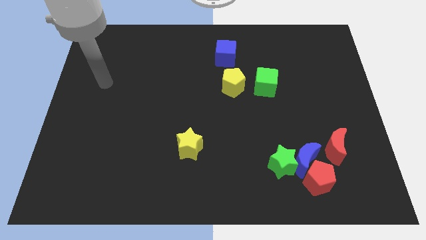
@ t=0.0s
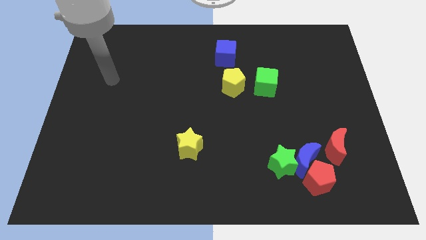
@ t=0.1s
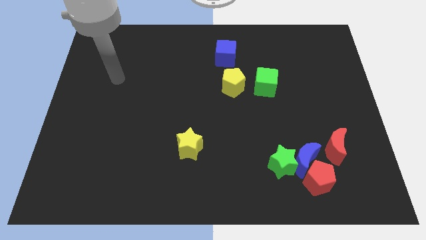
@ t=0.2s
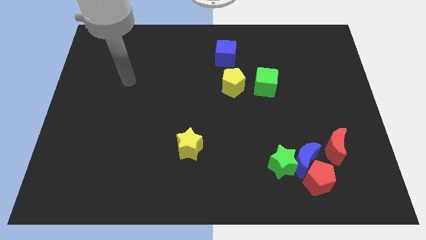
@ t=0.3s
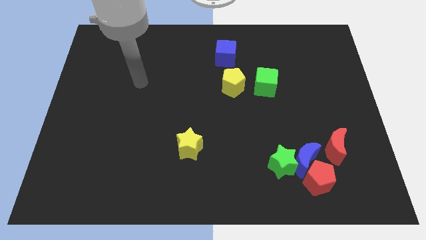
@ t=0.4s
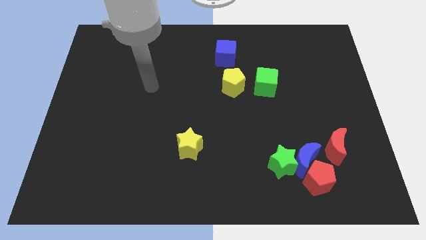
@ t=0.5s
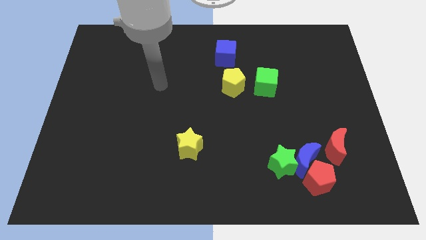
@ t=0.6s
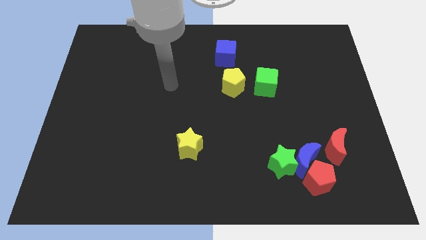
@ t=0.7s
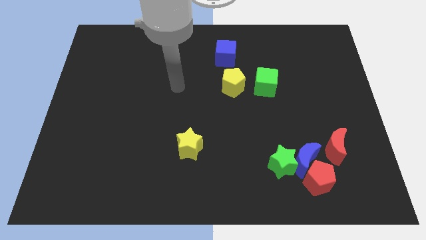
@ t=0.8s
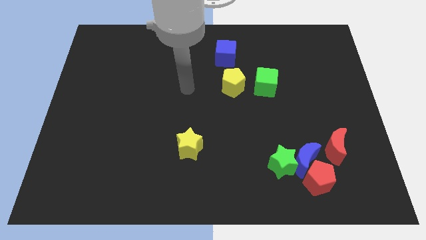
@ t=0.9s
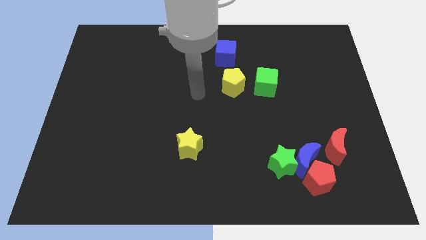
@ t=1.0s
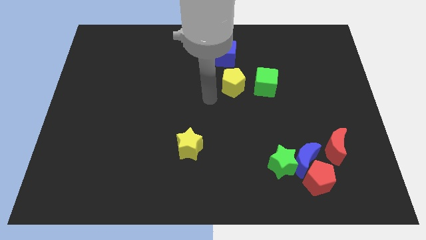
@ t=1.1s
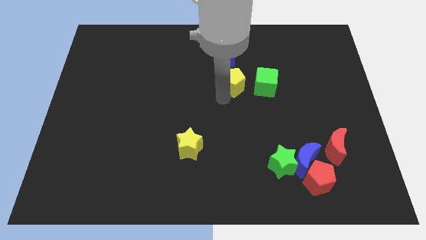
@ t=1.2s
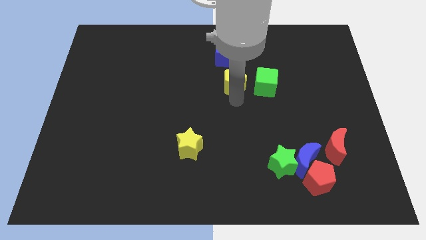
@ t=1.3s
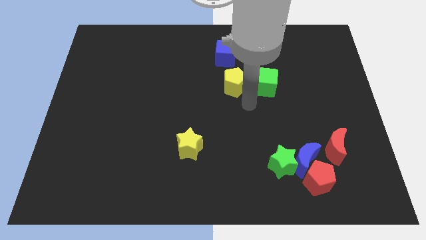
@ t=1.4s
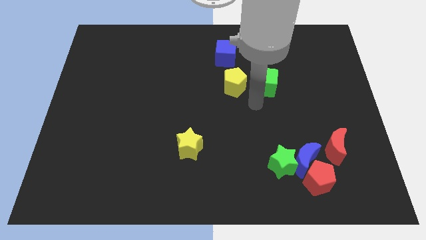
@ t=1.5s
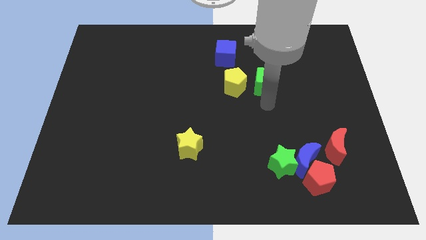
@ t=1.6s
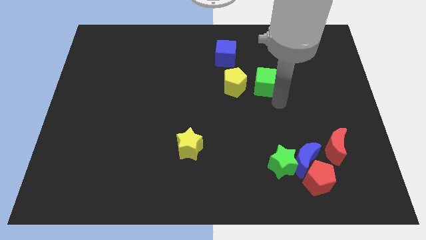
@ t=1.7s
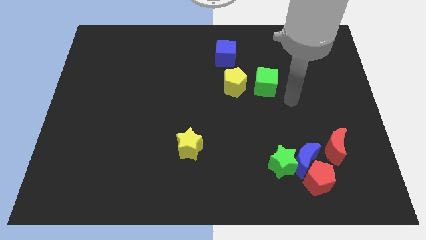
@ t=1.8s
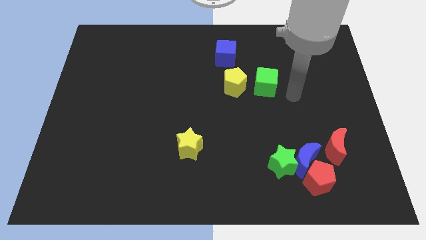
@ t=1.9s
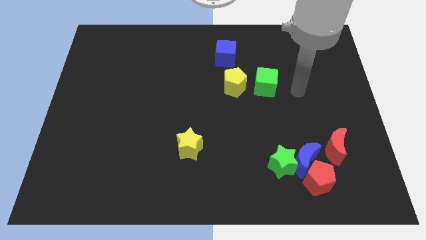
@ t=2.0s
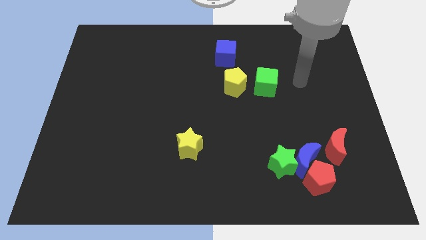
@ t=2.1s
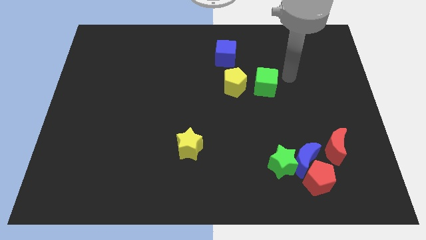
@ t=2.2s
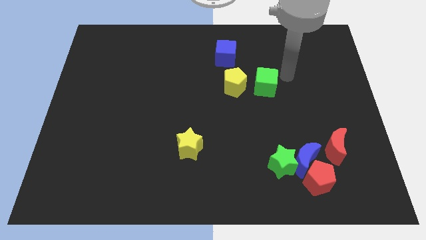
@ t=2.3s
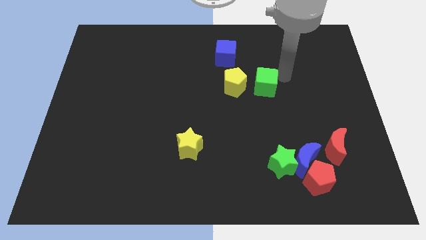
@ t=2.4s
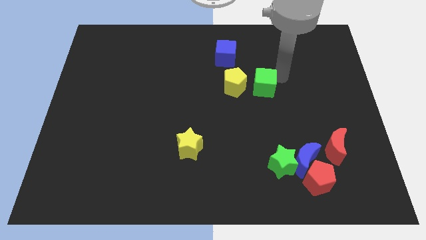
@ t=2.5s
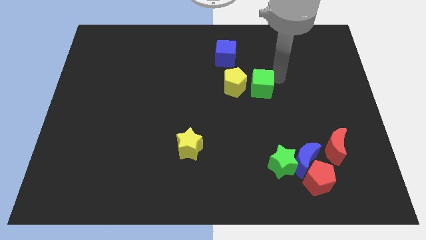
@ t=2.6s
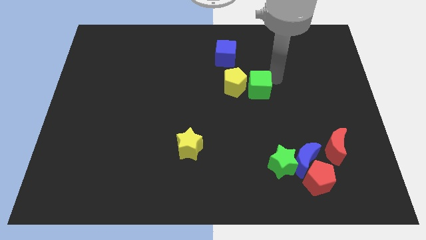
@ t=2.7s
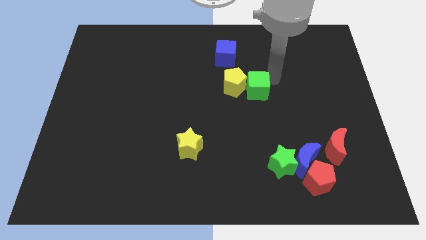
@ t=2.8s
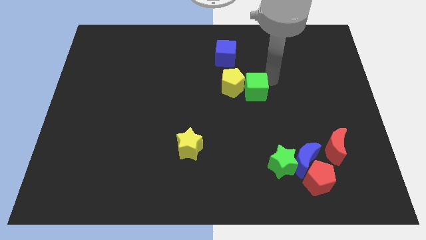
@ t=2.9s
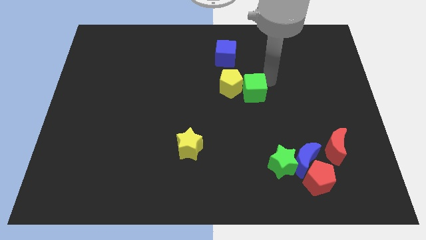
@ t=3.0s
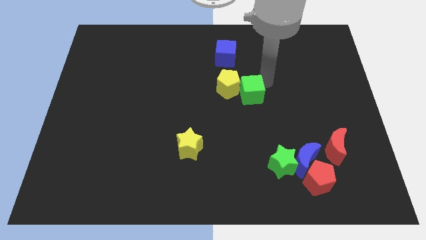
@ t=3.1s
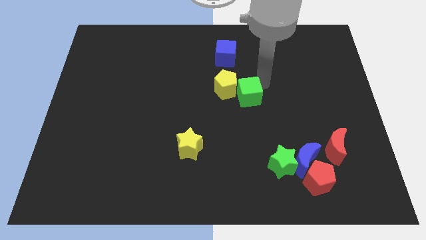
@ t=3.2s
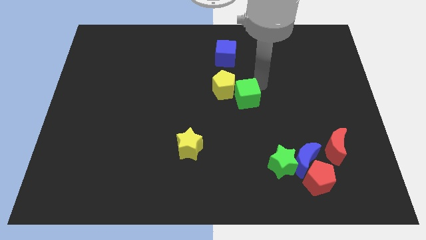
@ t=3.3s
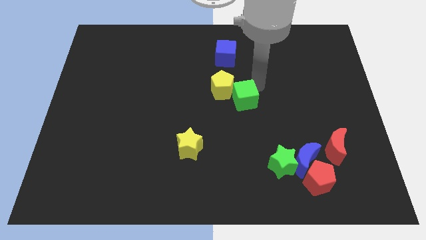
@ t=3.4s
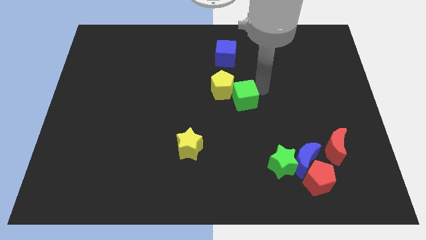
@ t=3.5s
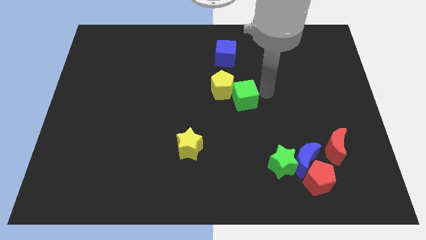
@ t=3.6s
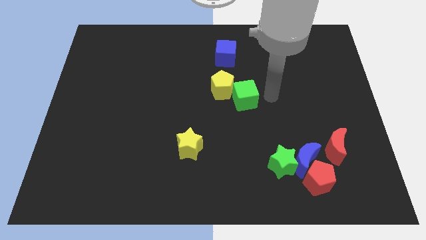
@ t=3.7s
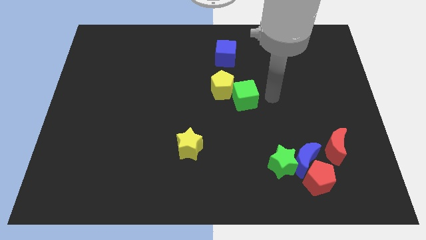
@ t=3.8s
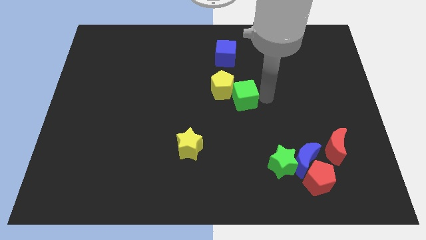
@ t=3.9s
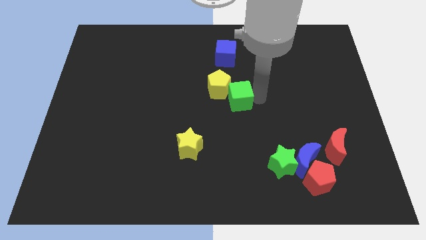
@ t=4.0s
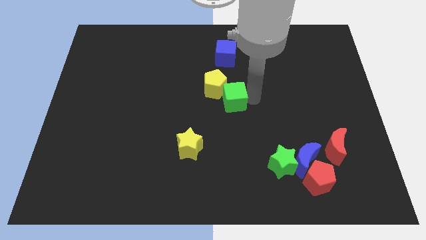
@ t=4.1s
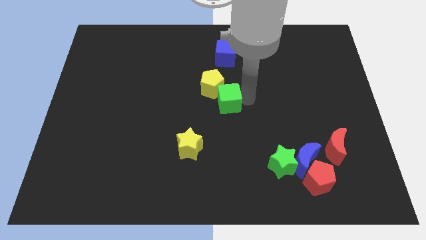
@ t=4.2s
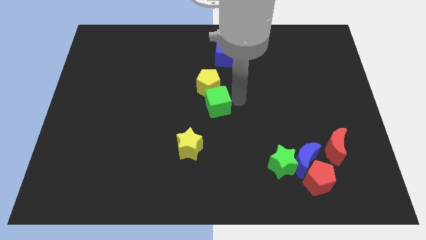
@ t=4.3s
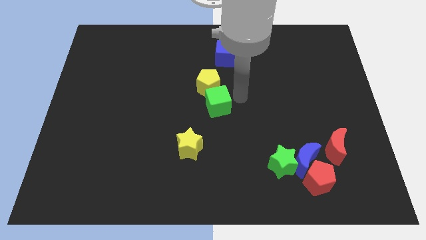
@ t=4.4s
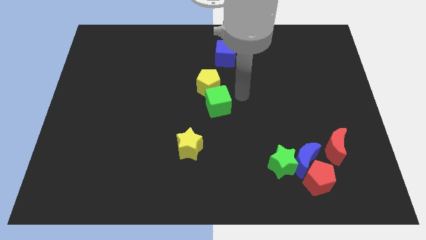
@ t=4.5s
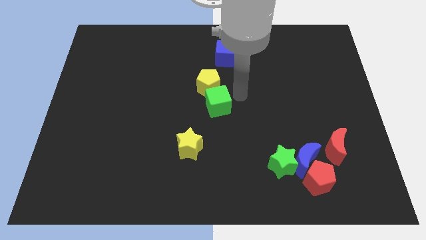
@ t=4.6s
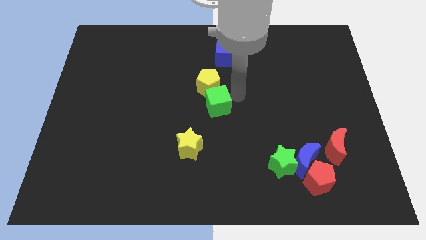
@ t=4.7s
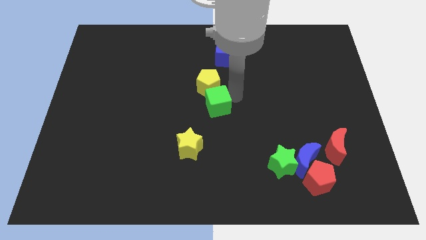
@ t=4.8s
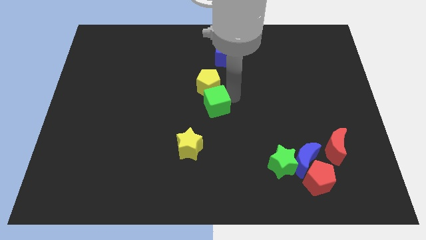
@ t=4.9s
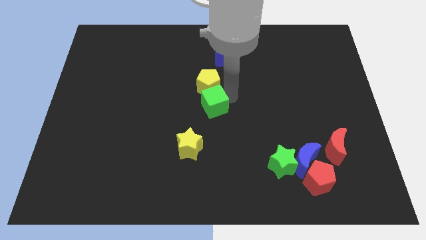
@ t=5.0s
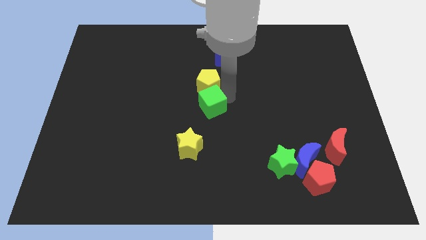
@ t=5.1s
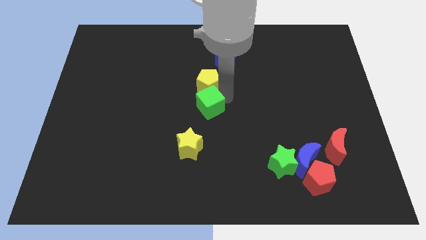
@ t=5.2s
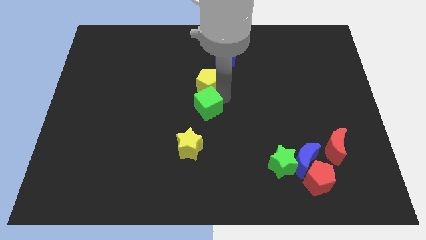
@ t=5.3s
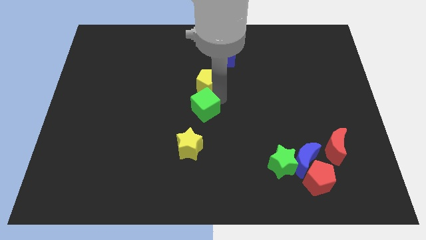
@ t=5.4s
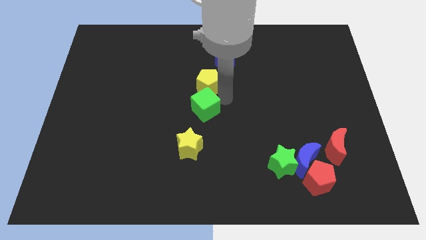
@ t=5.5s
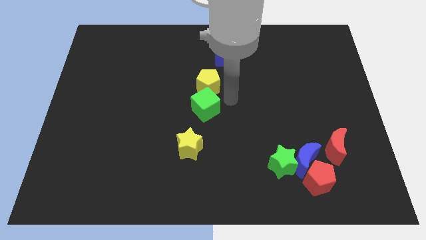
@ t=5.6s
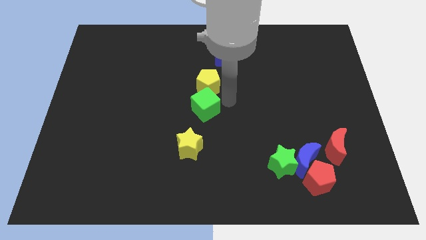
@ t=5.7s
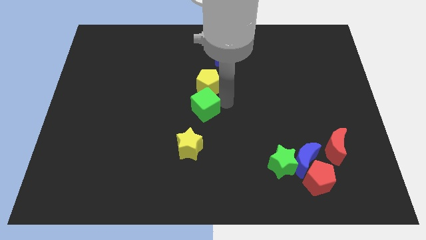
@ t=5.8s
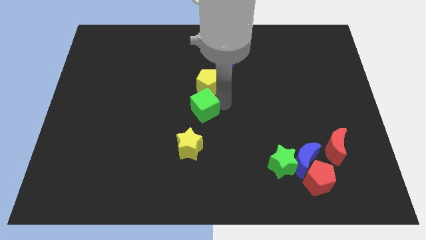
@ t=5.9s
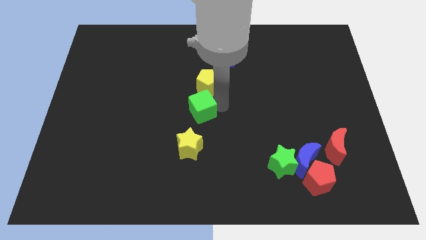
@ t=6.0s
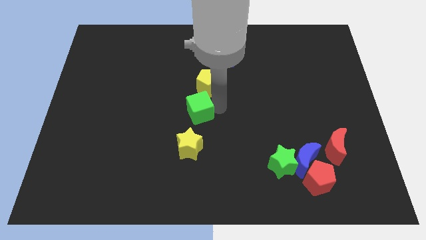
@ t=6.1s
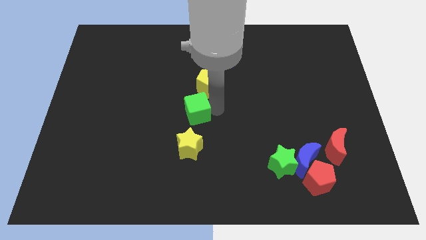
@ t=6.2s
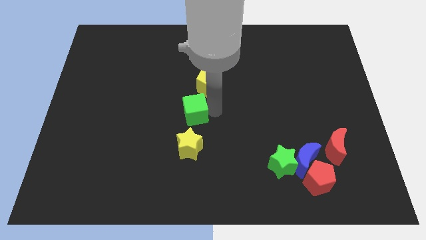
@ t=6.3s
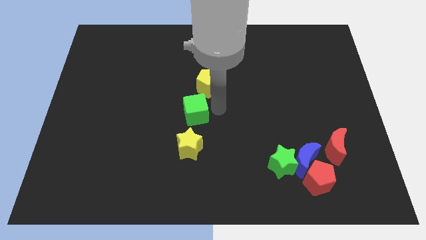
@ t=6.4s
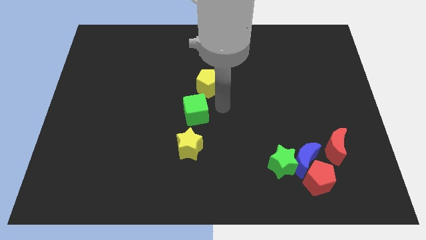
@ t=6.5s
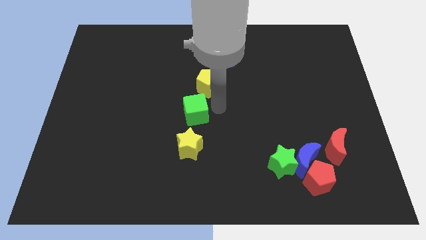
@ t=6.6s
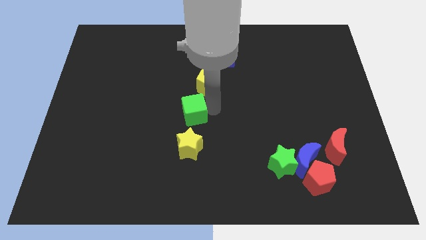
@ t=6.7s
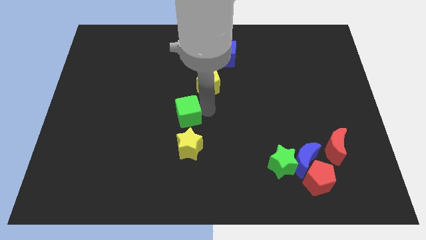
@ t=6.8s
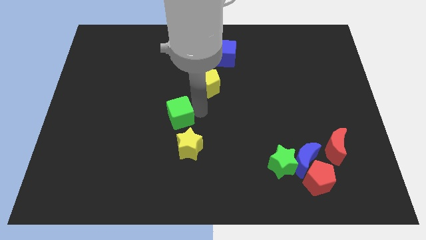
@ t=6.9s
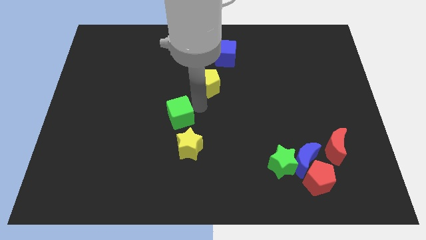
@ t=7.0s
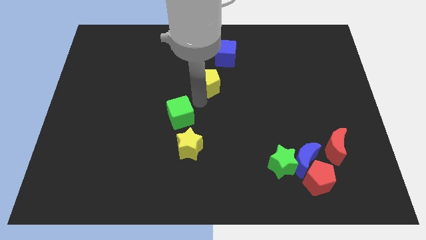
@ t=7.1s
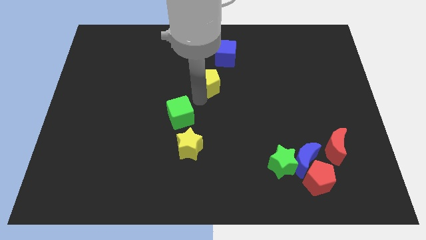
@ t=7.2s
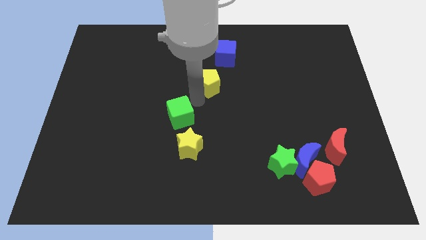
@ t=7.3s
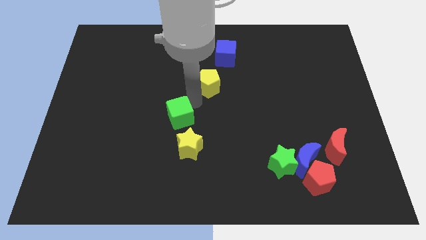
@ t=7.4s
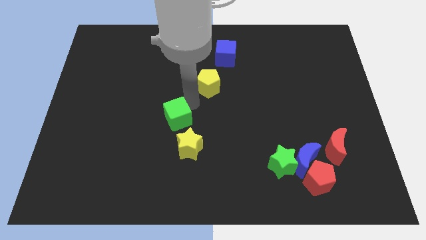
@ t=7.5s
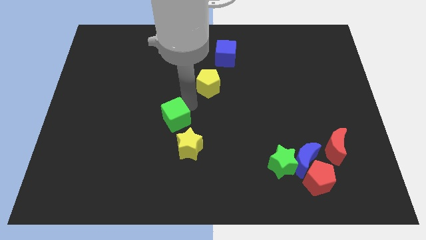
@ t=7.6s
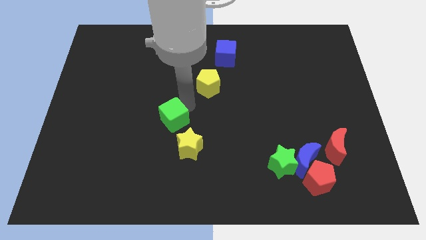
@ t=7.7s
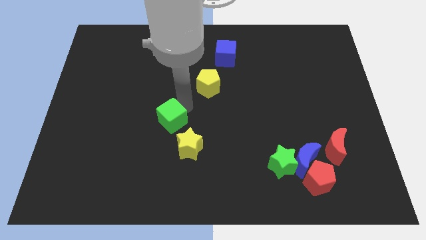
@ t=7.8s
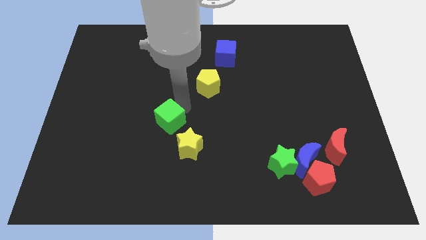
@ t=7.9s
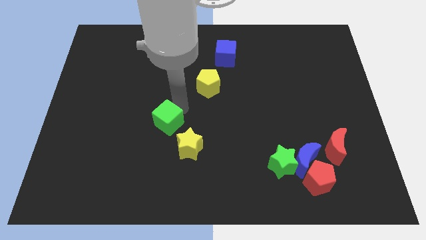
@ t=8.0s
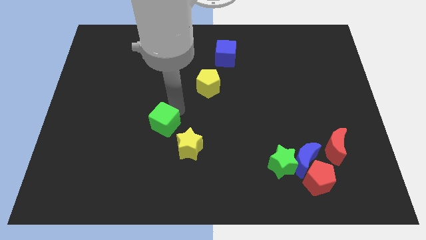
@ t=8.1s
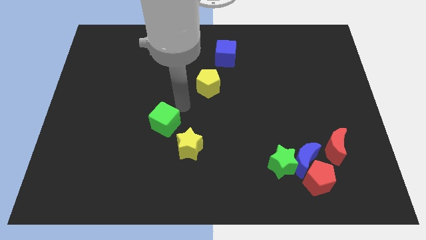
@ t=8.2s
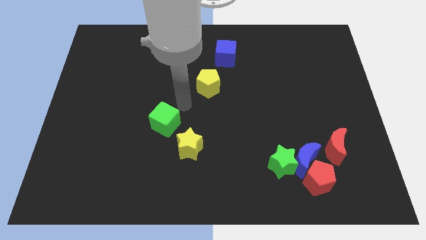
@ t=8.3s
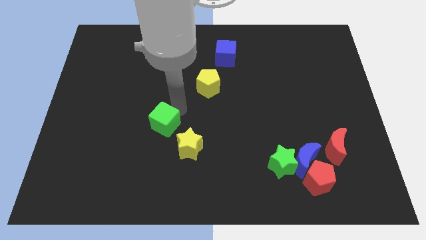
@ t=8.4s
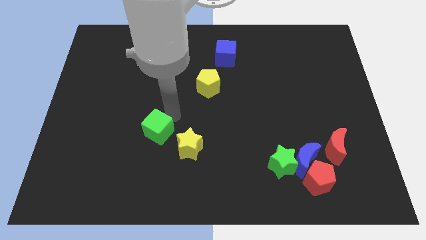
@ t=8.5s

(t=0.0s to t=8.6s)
put the green cube just left of the yellow star

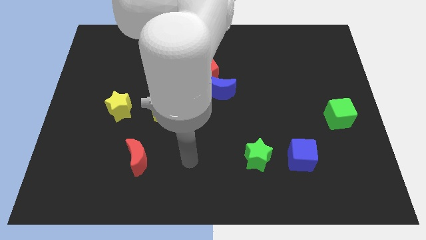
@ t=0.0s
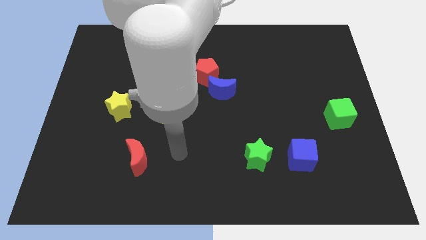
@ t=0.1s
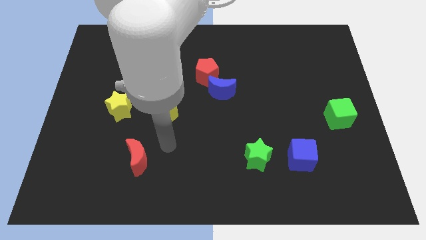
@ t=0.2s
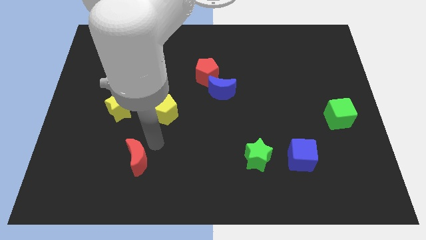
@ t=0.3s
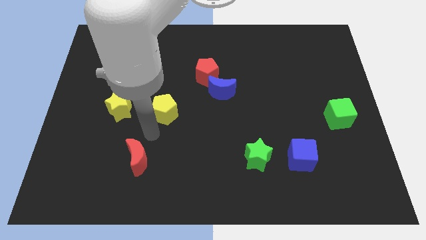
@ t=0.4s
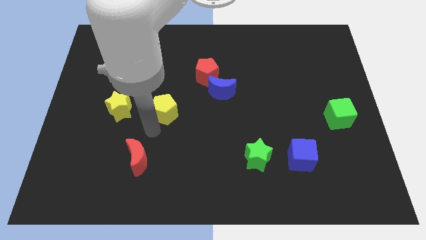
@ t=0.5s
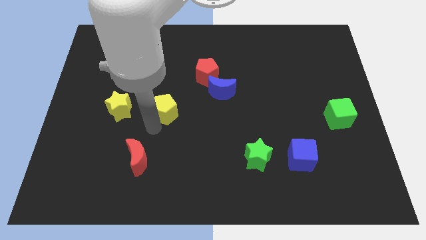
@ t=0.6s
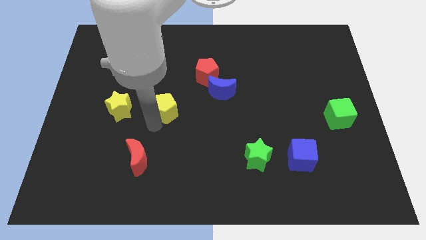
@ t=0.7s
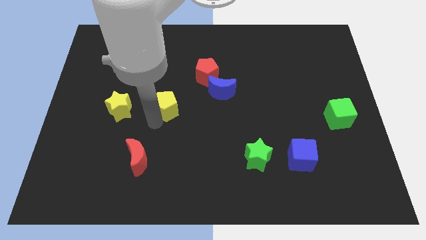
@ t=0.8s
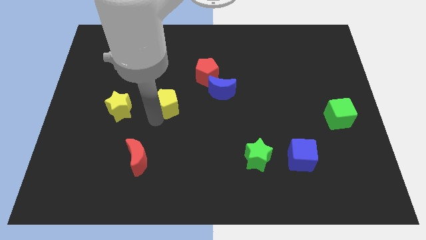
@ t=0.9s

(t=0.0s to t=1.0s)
put the yellow pentagon to the left side of the blue moon
